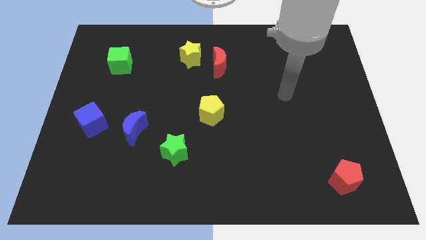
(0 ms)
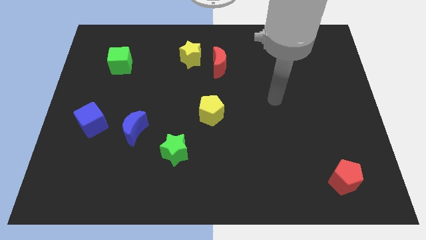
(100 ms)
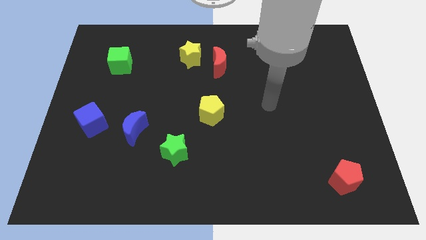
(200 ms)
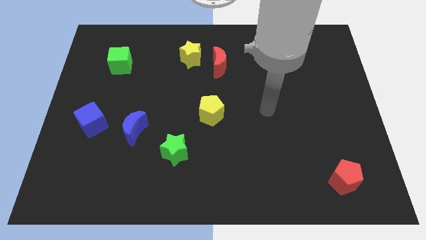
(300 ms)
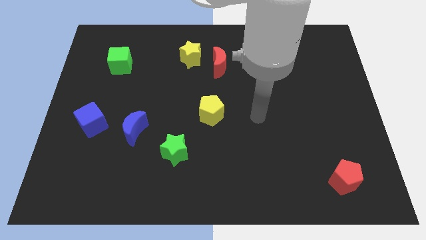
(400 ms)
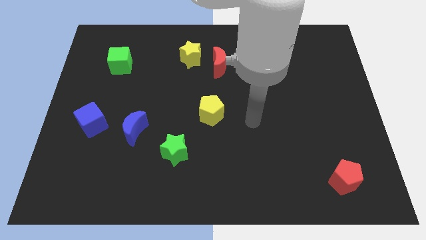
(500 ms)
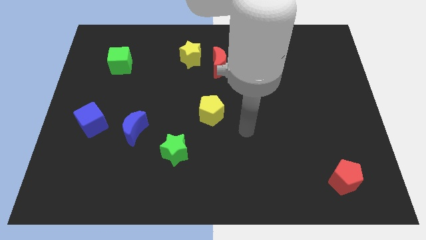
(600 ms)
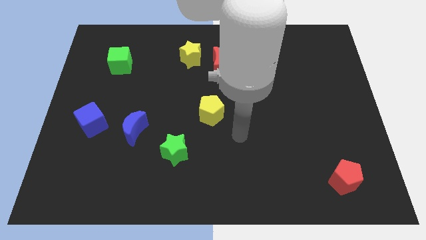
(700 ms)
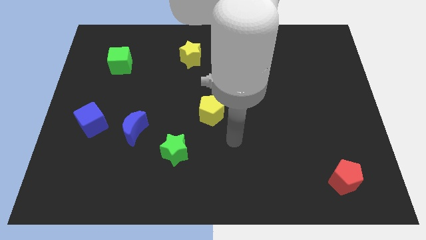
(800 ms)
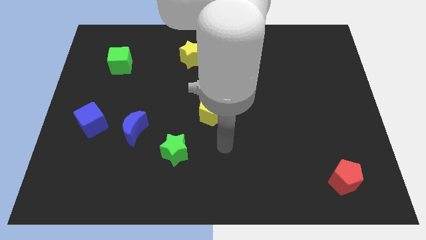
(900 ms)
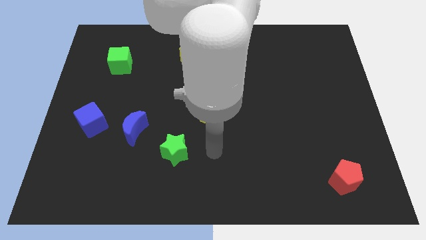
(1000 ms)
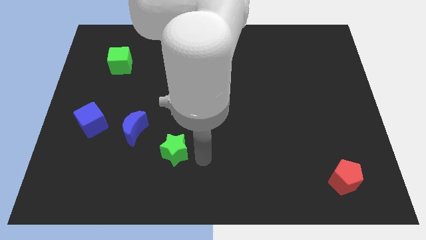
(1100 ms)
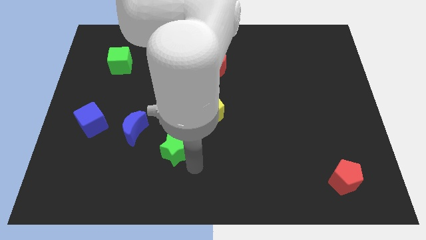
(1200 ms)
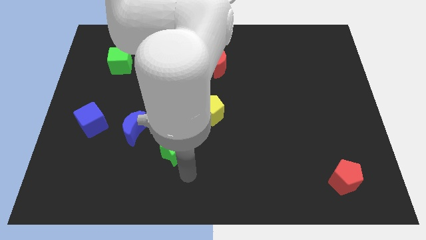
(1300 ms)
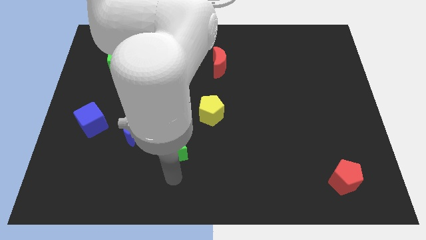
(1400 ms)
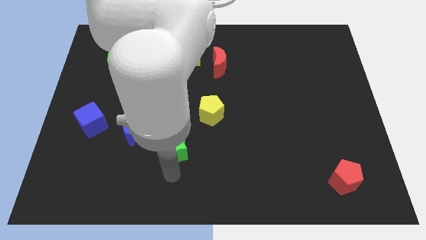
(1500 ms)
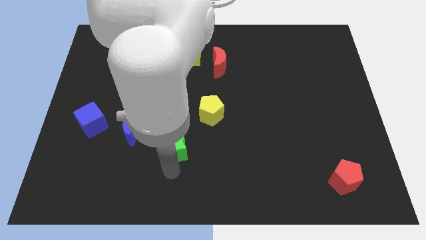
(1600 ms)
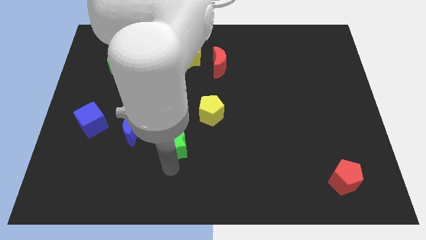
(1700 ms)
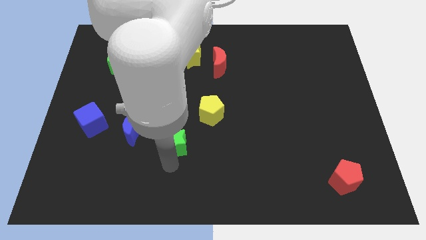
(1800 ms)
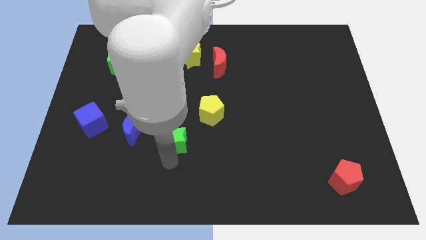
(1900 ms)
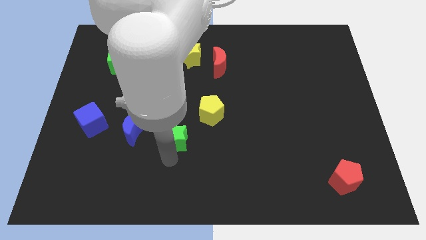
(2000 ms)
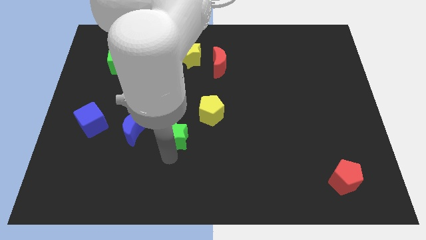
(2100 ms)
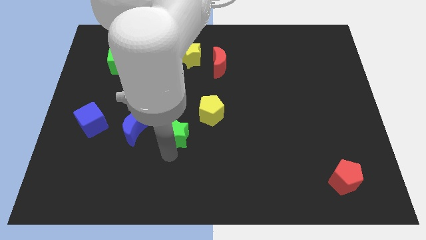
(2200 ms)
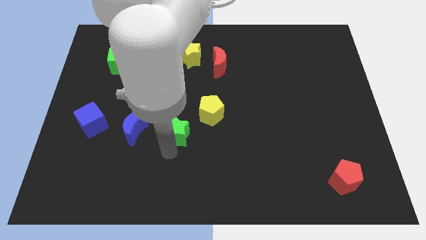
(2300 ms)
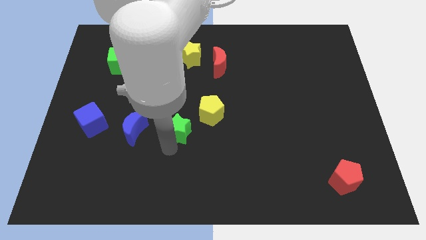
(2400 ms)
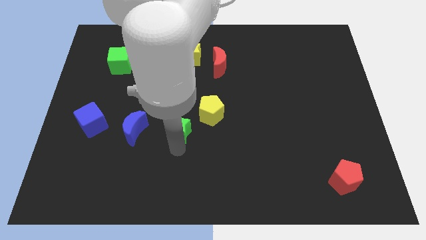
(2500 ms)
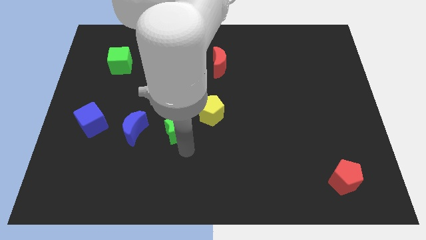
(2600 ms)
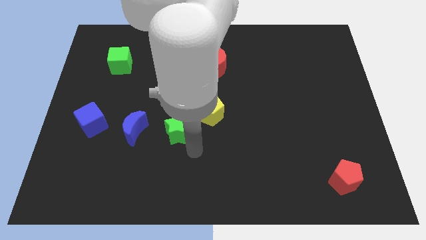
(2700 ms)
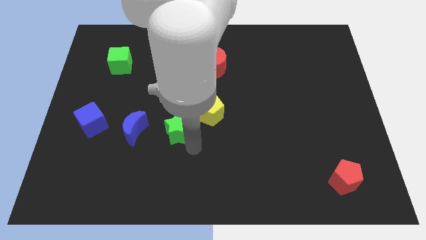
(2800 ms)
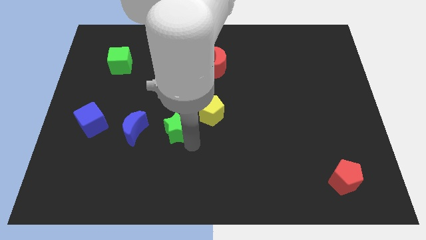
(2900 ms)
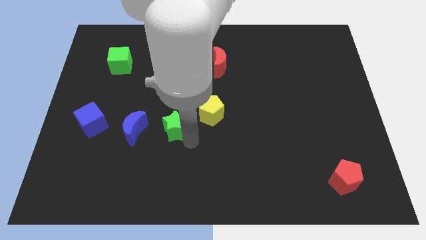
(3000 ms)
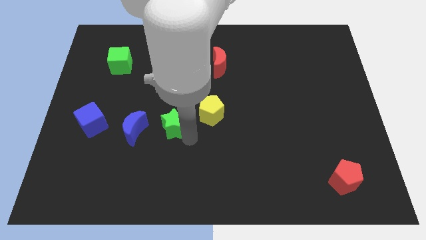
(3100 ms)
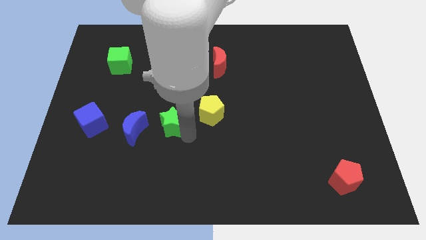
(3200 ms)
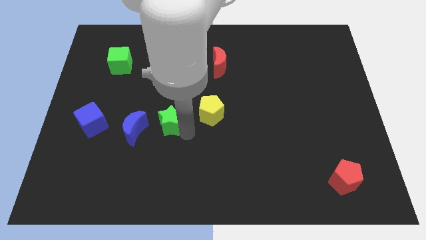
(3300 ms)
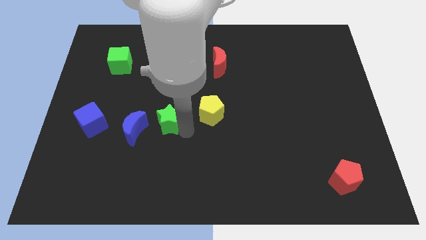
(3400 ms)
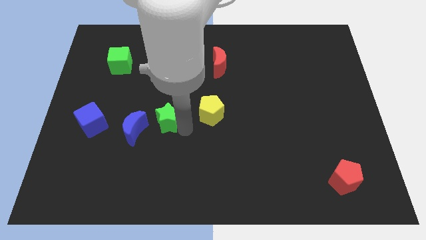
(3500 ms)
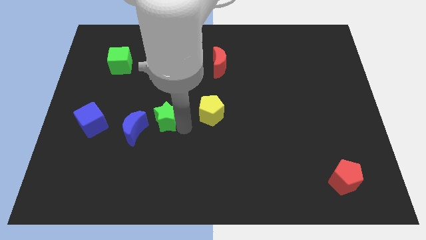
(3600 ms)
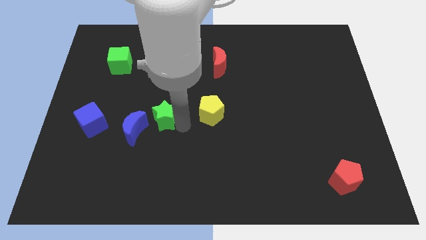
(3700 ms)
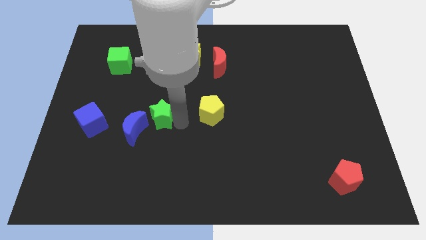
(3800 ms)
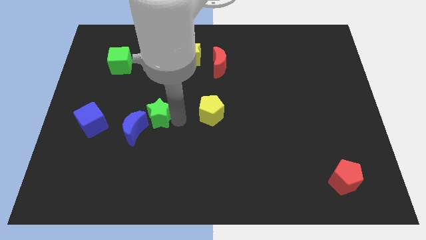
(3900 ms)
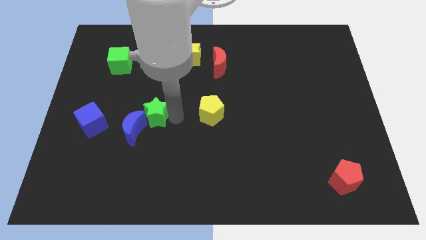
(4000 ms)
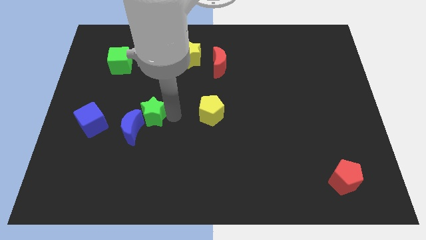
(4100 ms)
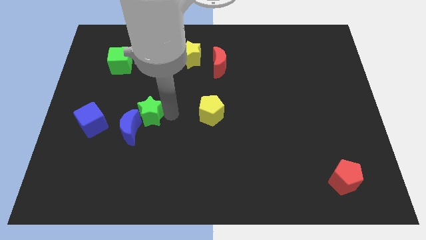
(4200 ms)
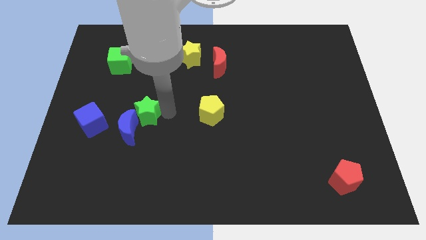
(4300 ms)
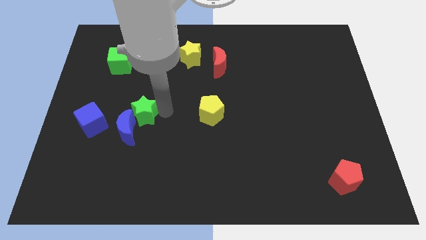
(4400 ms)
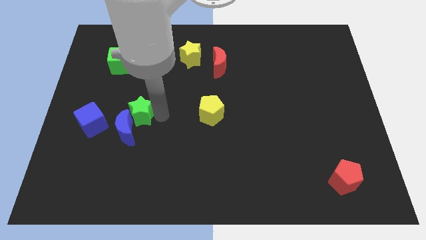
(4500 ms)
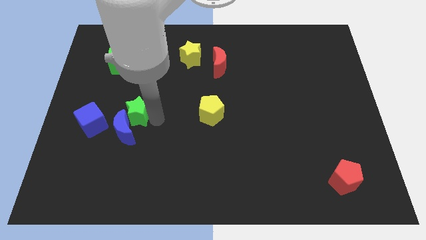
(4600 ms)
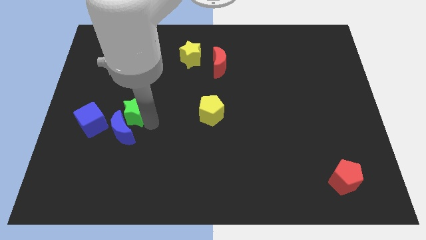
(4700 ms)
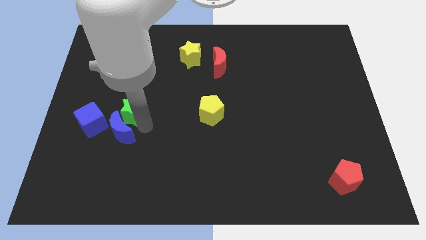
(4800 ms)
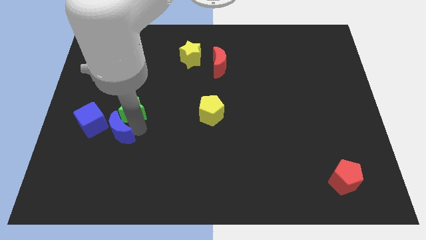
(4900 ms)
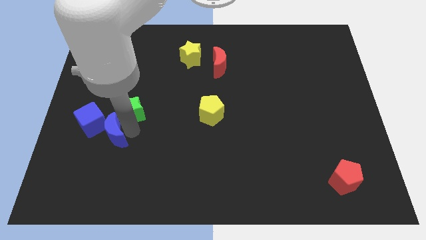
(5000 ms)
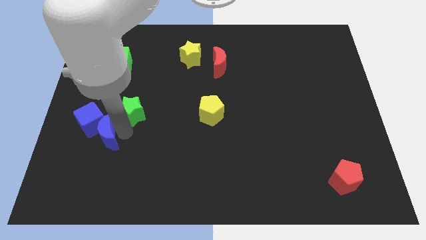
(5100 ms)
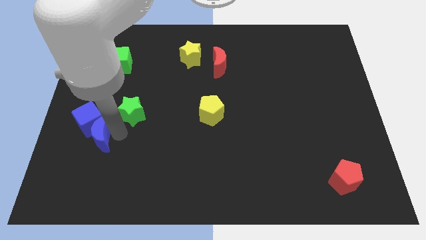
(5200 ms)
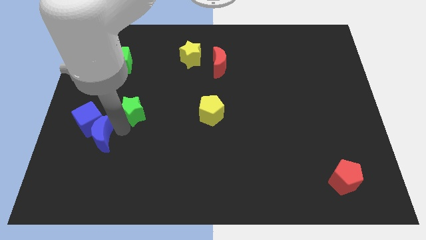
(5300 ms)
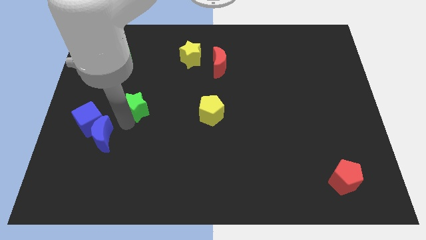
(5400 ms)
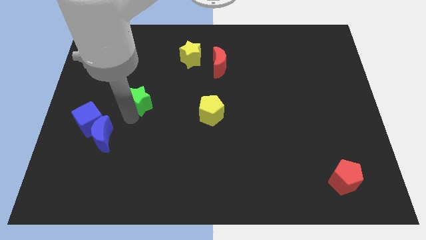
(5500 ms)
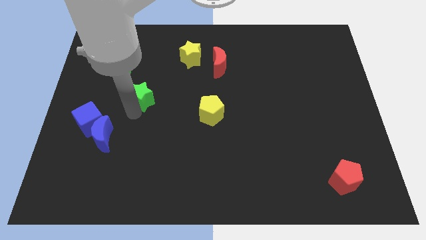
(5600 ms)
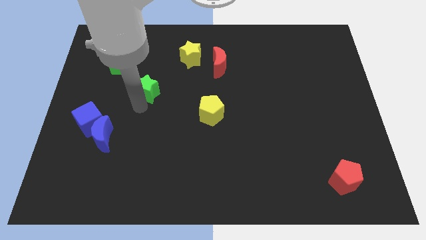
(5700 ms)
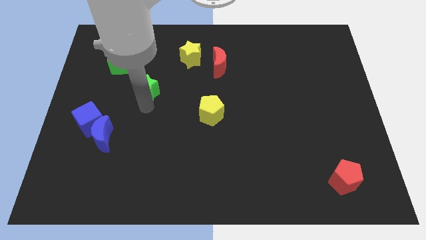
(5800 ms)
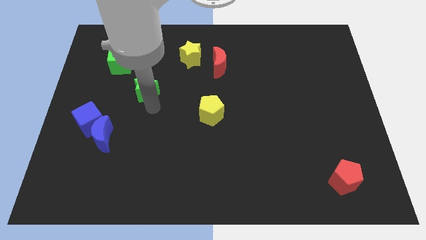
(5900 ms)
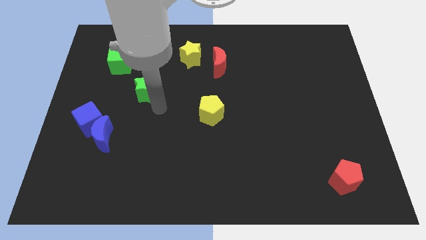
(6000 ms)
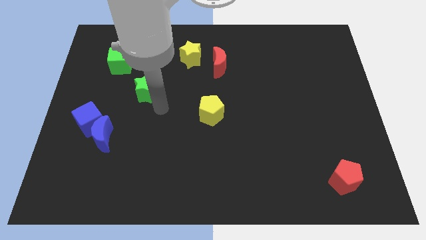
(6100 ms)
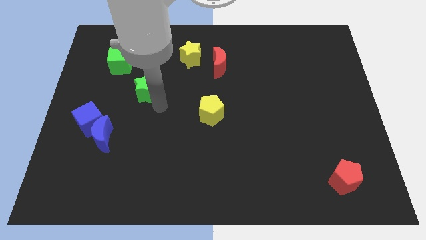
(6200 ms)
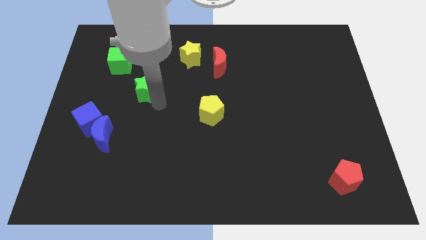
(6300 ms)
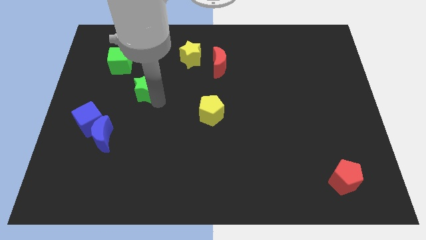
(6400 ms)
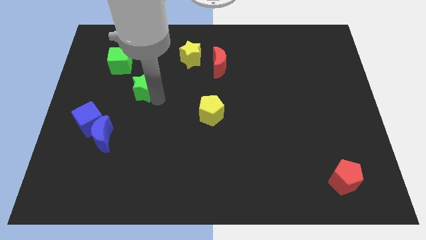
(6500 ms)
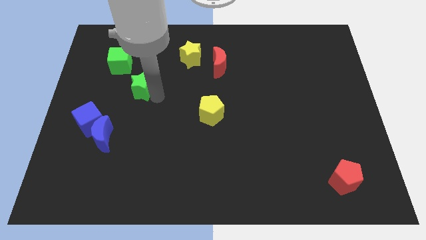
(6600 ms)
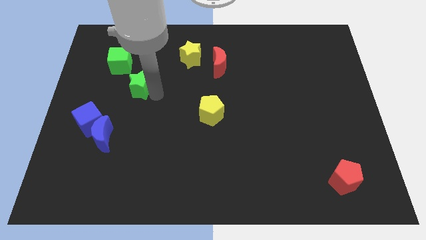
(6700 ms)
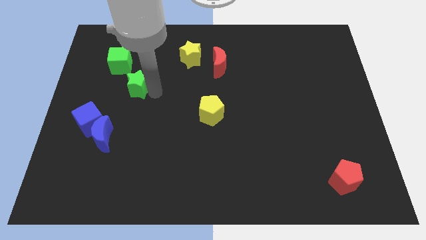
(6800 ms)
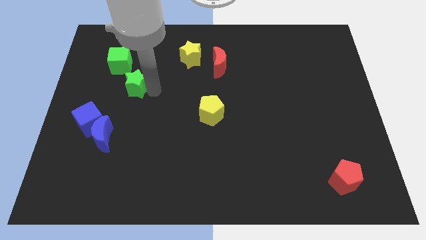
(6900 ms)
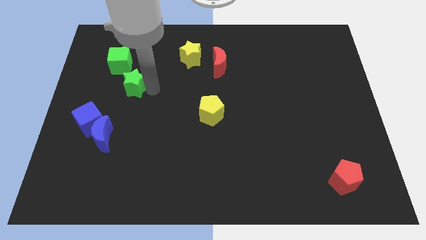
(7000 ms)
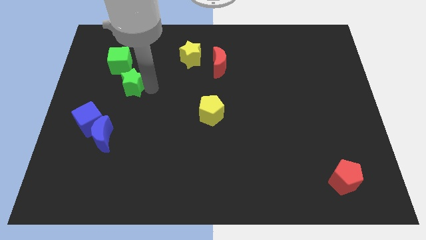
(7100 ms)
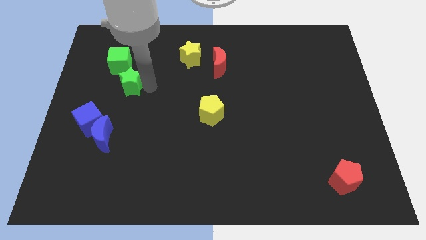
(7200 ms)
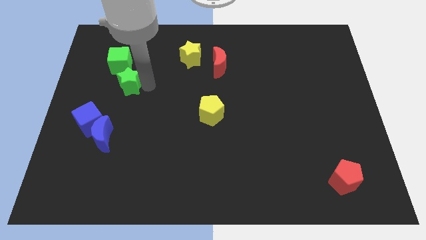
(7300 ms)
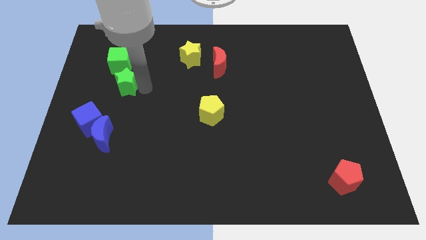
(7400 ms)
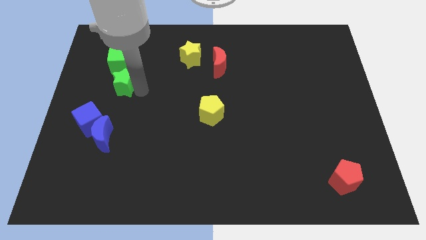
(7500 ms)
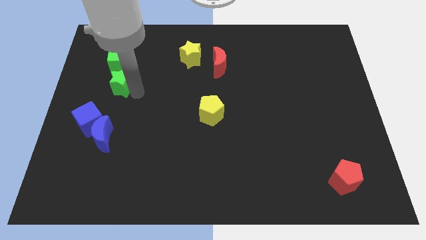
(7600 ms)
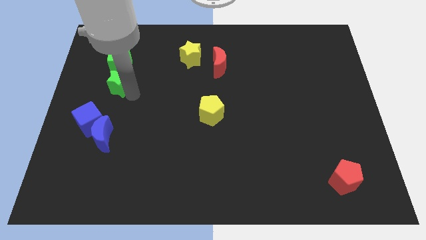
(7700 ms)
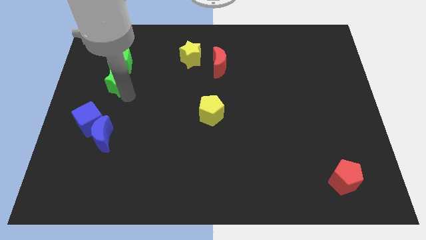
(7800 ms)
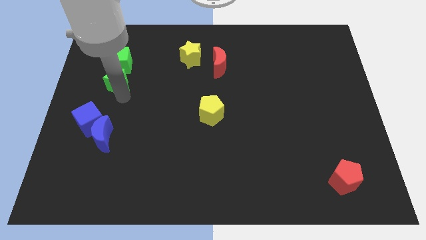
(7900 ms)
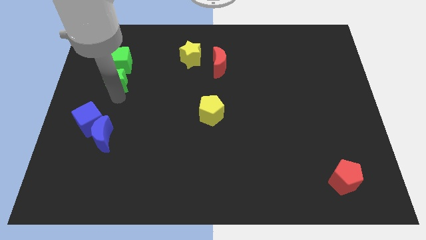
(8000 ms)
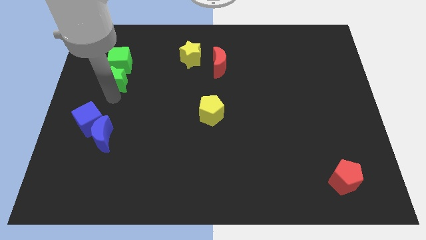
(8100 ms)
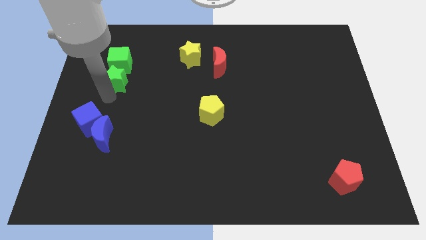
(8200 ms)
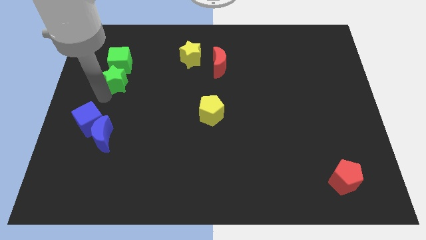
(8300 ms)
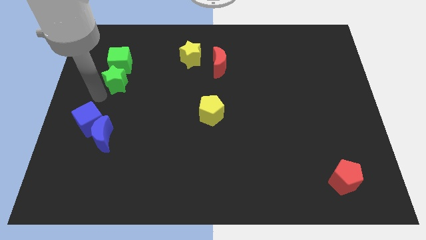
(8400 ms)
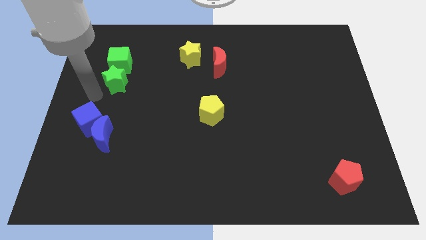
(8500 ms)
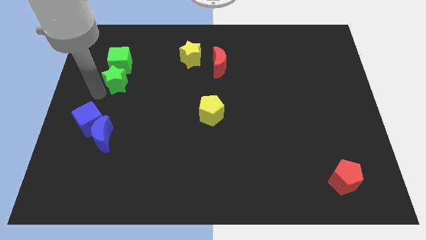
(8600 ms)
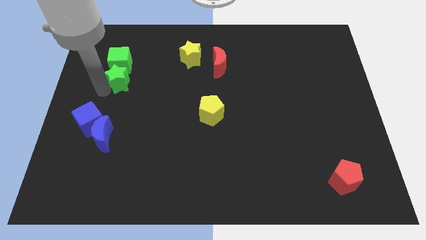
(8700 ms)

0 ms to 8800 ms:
push the green star to the green cube
